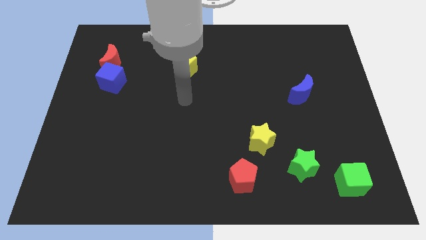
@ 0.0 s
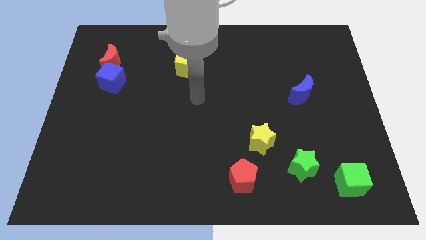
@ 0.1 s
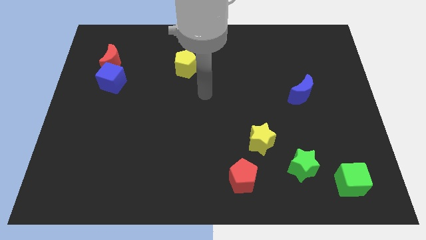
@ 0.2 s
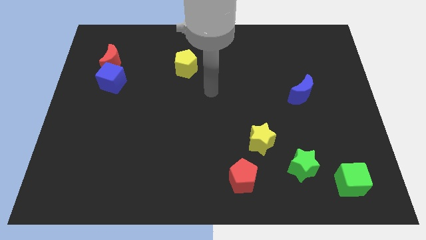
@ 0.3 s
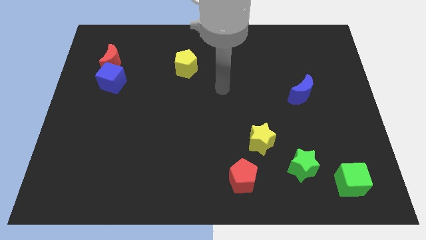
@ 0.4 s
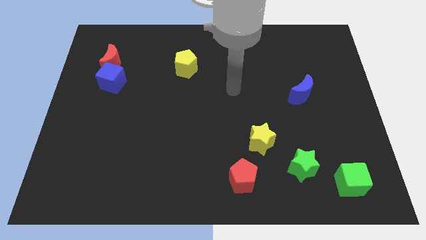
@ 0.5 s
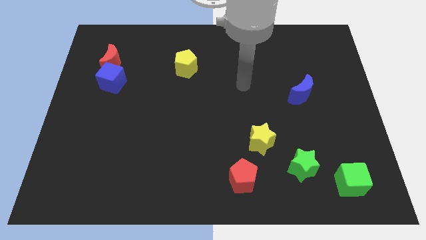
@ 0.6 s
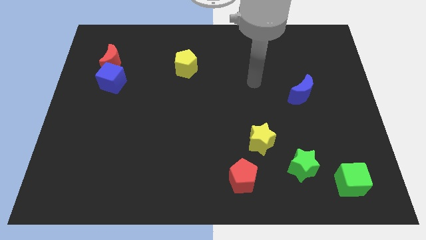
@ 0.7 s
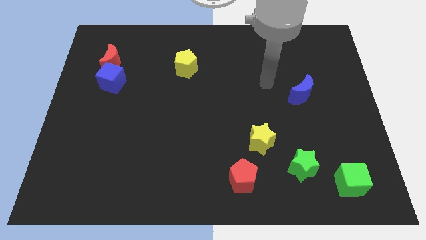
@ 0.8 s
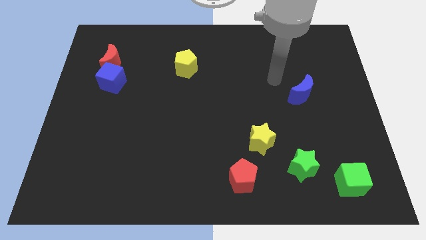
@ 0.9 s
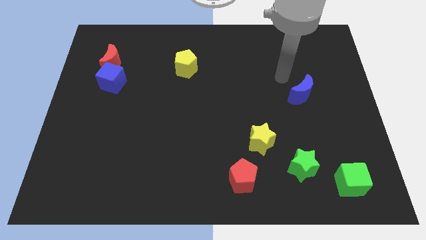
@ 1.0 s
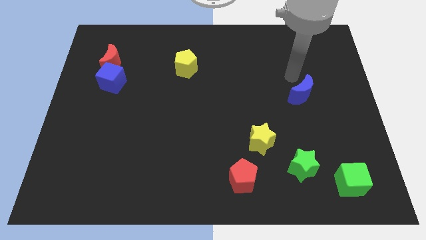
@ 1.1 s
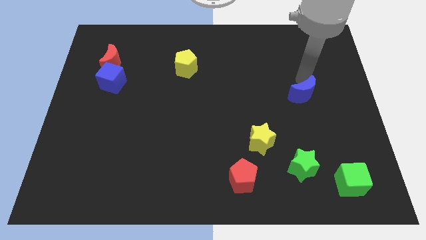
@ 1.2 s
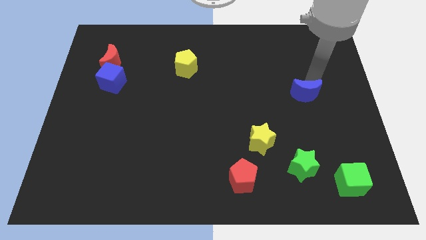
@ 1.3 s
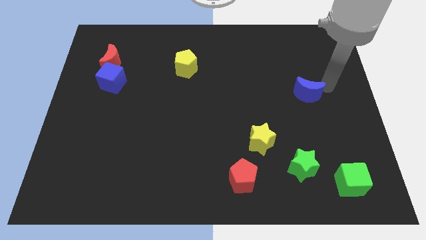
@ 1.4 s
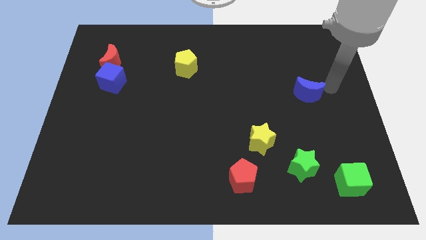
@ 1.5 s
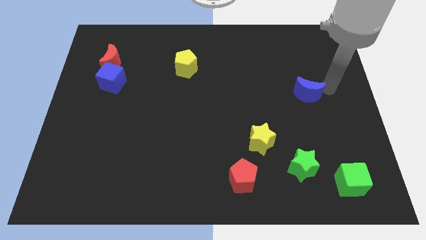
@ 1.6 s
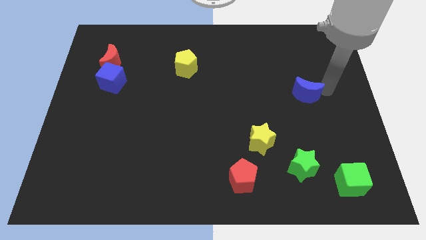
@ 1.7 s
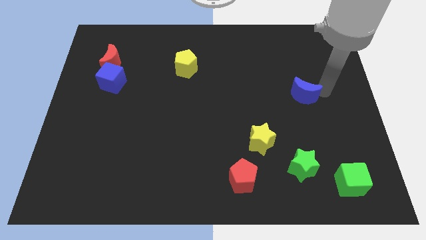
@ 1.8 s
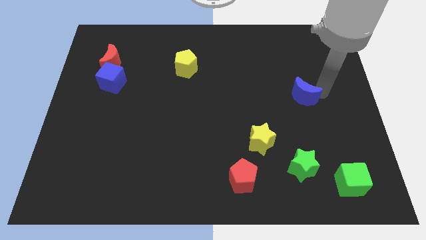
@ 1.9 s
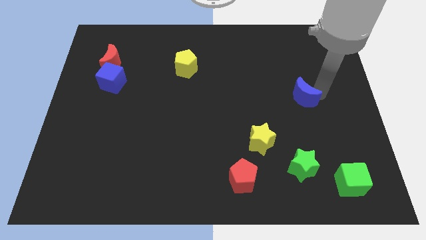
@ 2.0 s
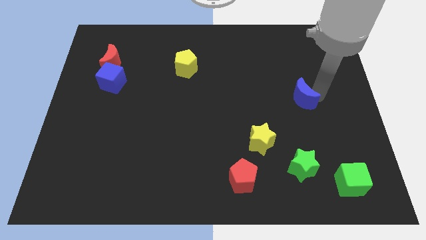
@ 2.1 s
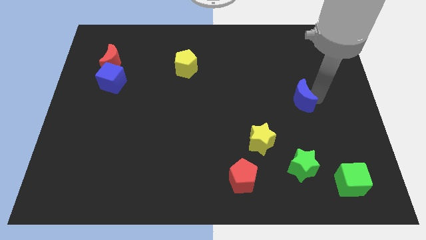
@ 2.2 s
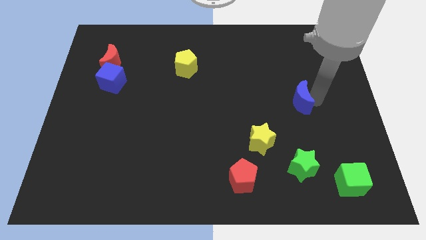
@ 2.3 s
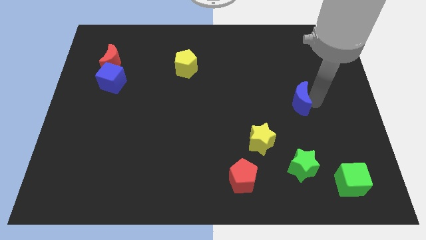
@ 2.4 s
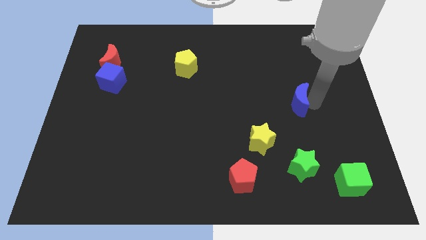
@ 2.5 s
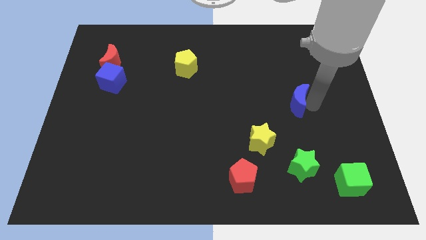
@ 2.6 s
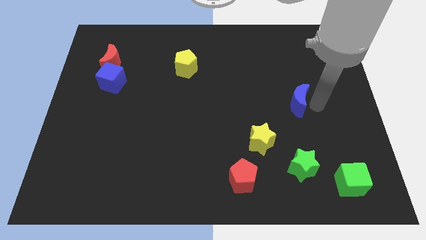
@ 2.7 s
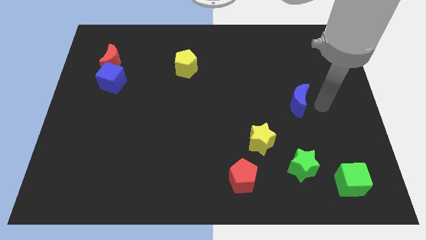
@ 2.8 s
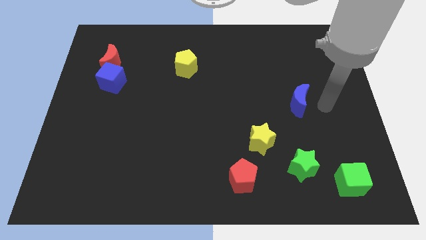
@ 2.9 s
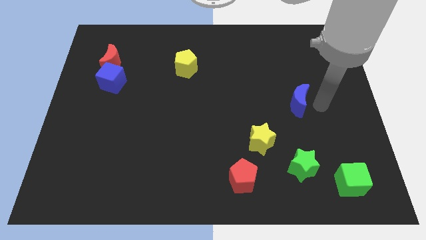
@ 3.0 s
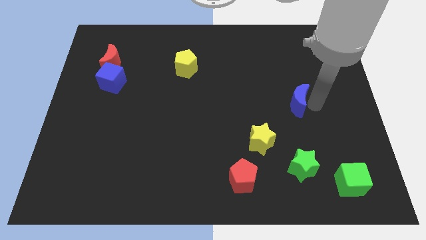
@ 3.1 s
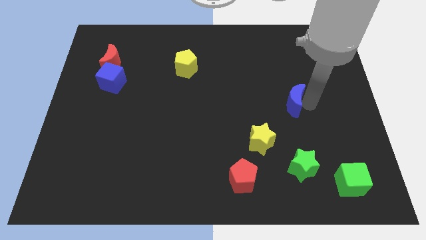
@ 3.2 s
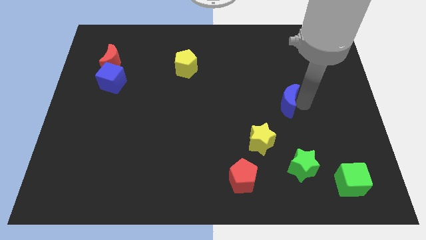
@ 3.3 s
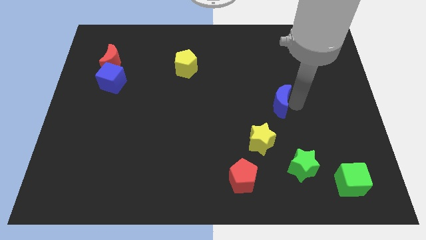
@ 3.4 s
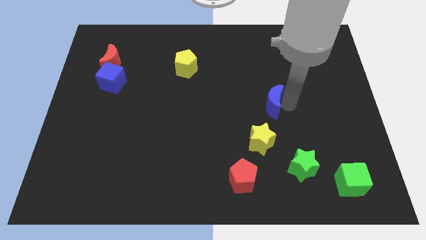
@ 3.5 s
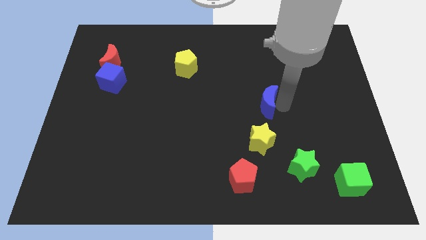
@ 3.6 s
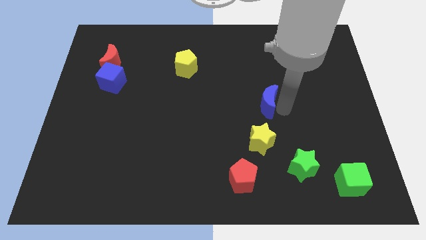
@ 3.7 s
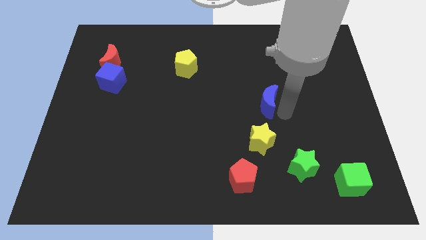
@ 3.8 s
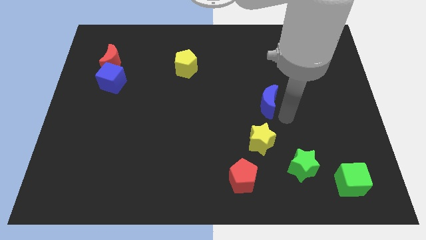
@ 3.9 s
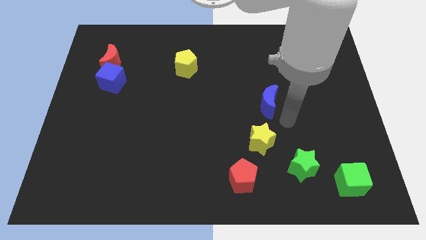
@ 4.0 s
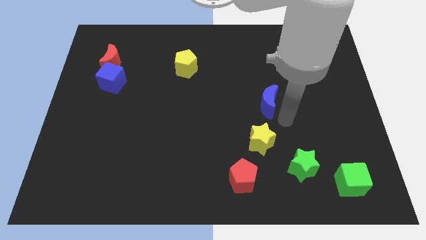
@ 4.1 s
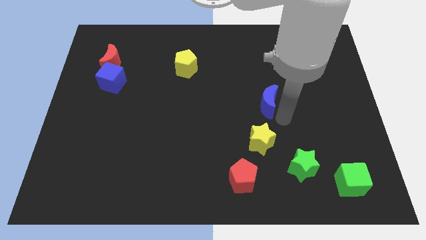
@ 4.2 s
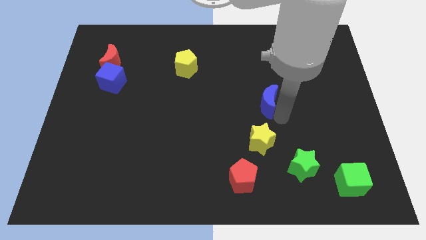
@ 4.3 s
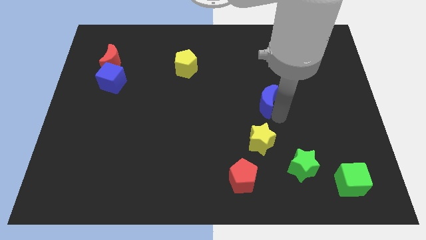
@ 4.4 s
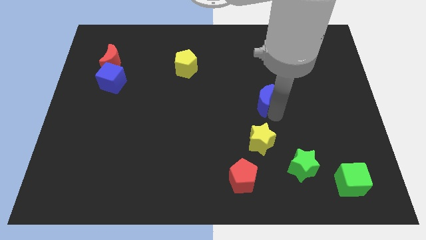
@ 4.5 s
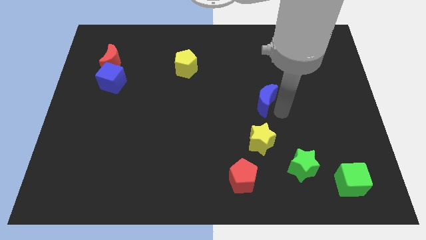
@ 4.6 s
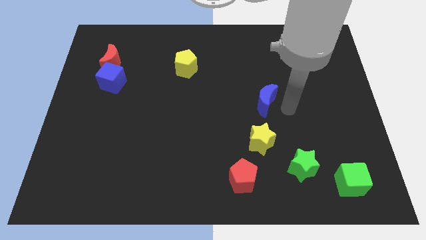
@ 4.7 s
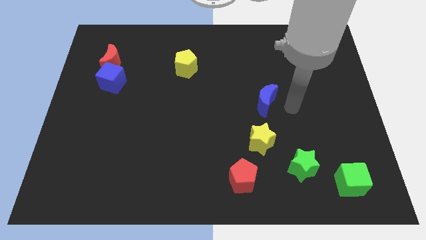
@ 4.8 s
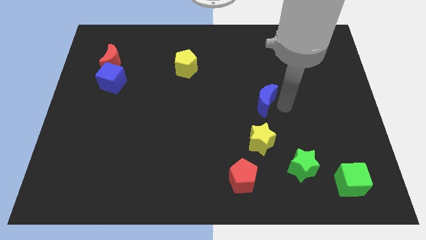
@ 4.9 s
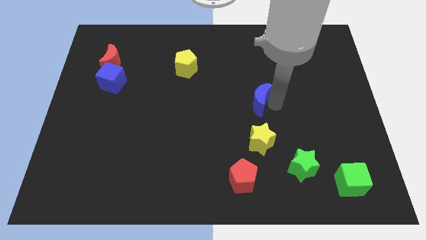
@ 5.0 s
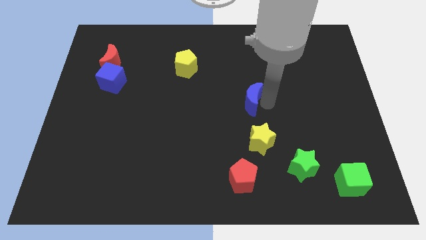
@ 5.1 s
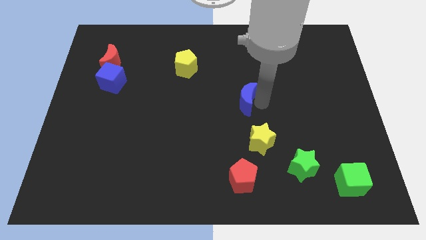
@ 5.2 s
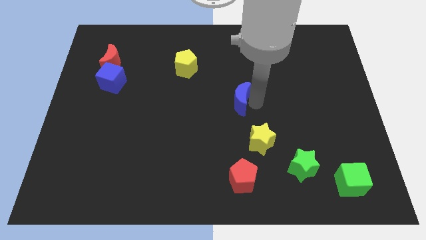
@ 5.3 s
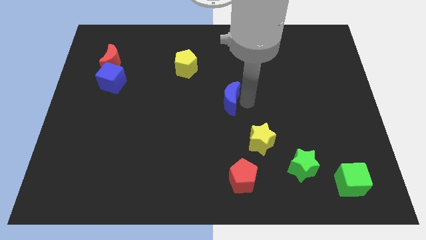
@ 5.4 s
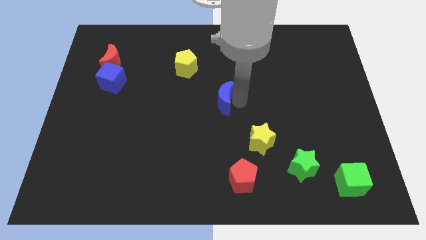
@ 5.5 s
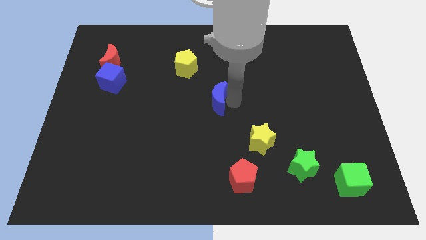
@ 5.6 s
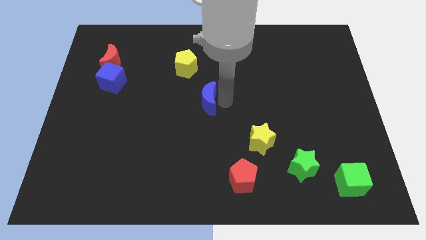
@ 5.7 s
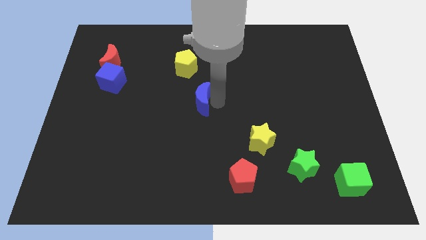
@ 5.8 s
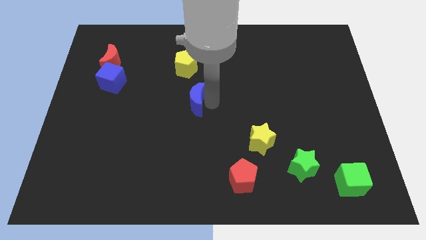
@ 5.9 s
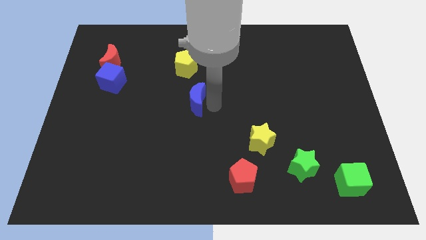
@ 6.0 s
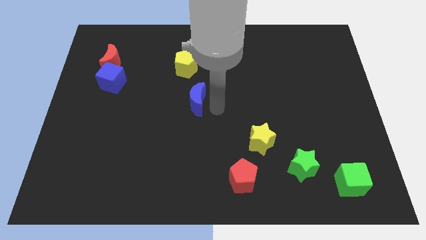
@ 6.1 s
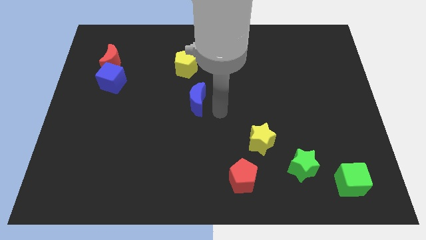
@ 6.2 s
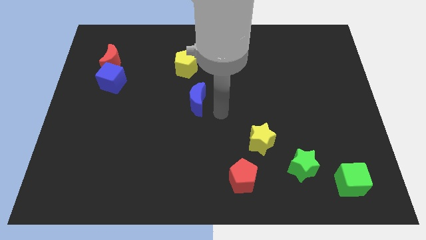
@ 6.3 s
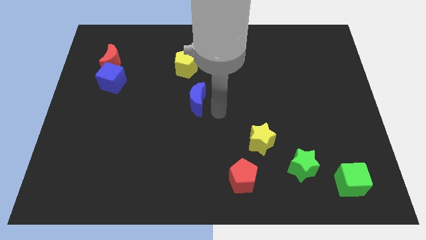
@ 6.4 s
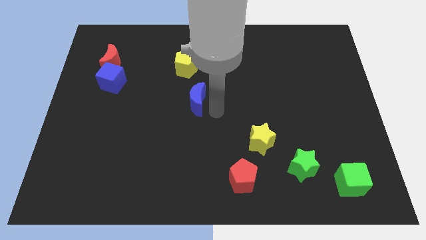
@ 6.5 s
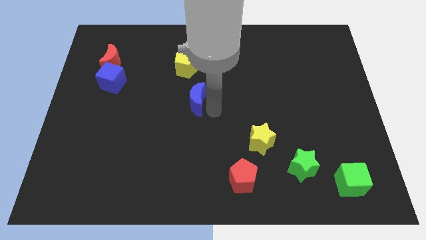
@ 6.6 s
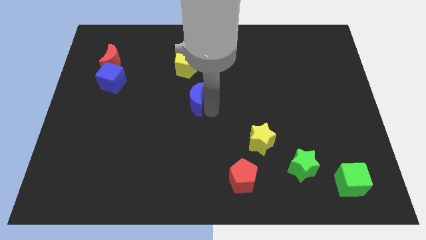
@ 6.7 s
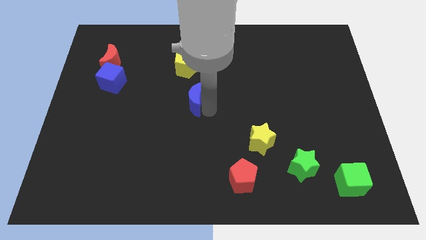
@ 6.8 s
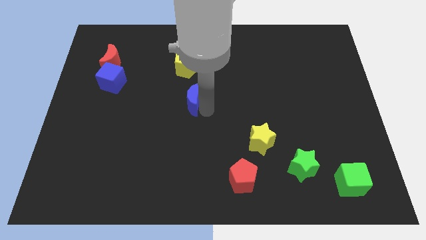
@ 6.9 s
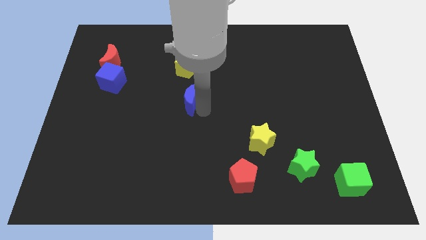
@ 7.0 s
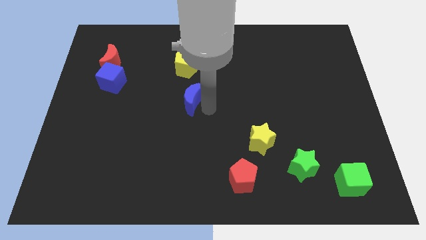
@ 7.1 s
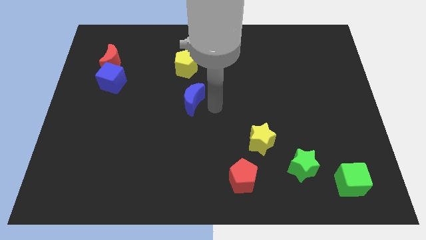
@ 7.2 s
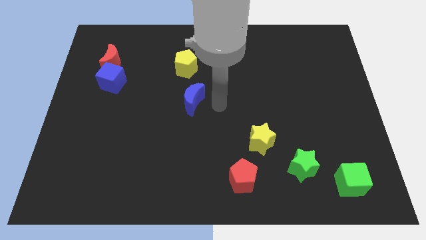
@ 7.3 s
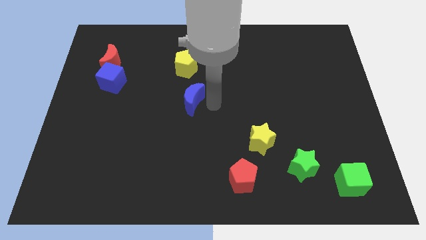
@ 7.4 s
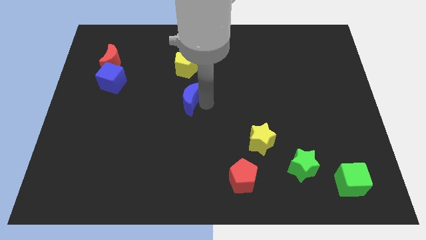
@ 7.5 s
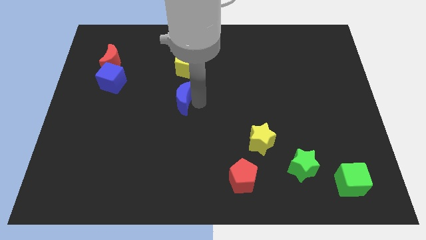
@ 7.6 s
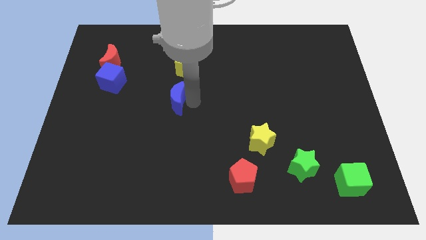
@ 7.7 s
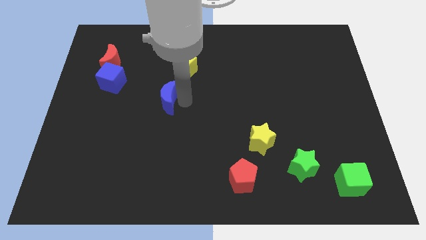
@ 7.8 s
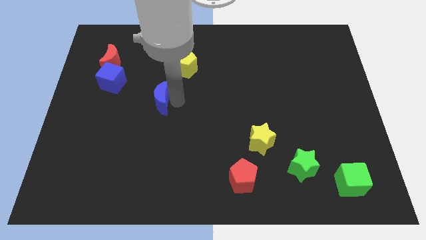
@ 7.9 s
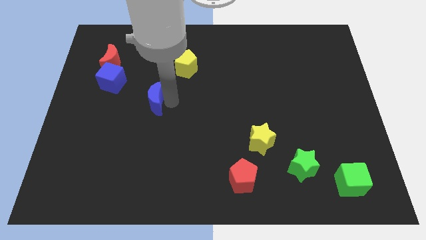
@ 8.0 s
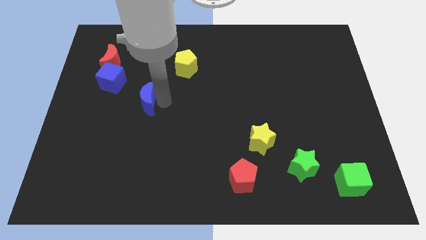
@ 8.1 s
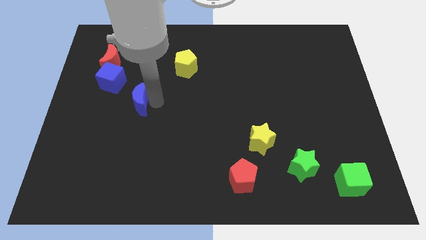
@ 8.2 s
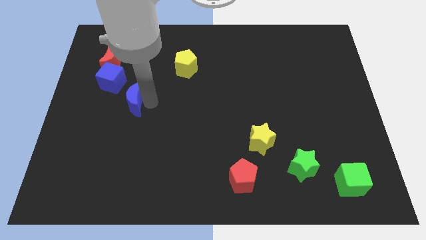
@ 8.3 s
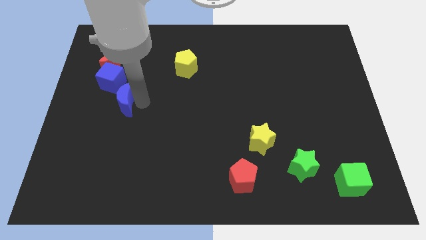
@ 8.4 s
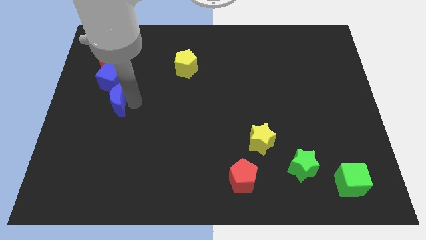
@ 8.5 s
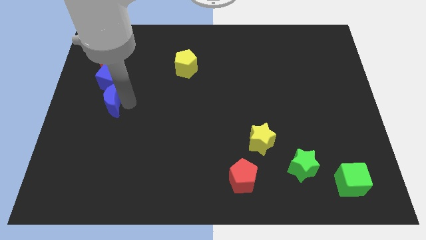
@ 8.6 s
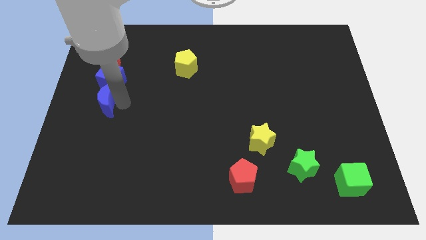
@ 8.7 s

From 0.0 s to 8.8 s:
push the blue moon to the center left
